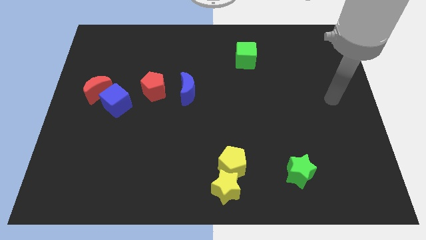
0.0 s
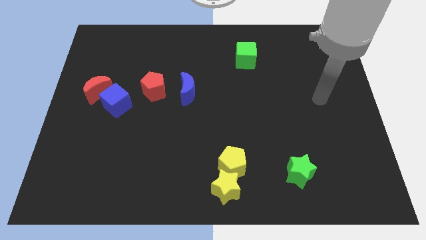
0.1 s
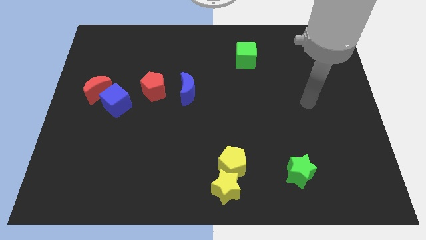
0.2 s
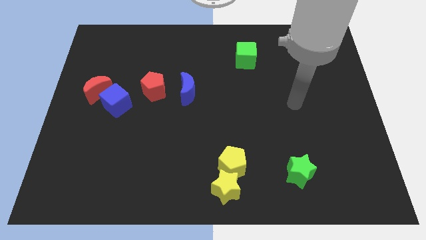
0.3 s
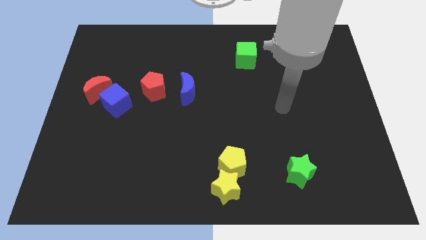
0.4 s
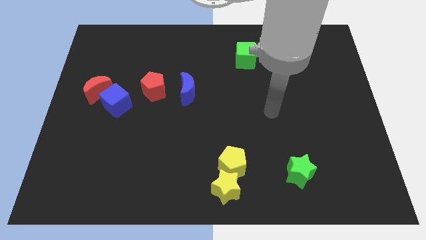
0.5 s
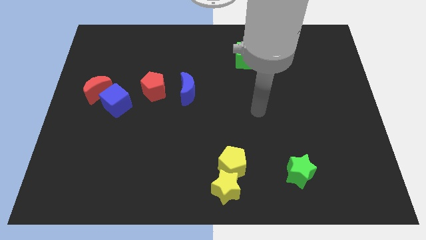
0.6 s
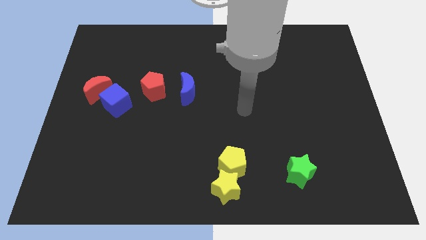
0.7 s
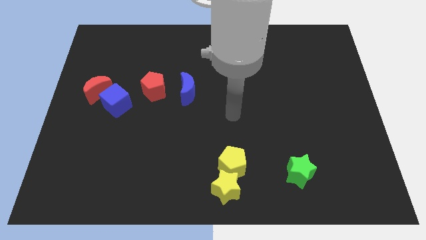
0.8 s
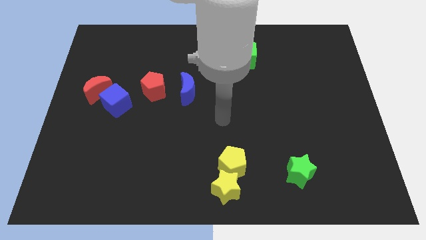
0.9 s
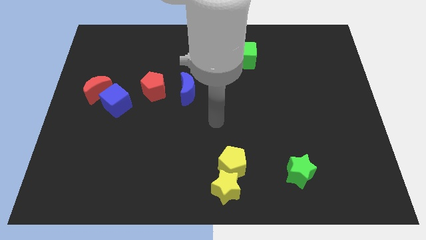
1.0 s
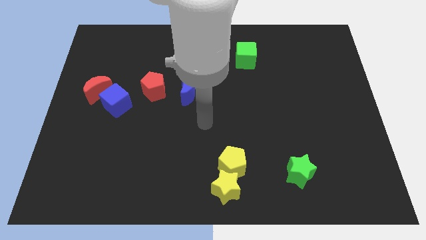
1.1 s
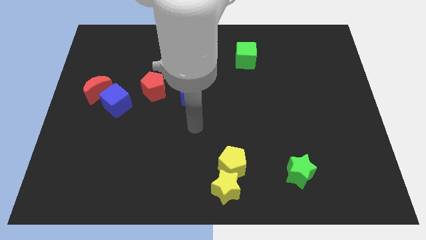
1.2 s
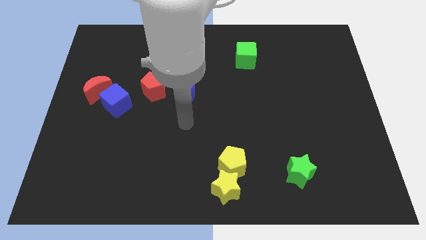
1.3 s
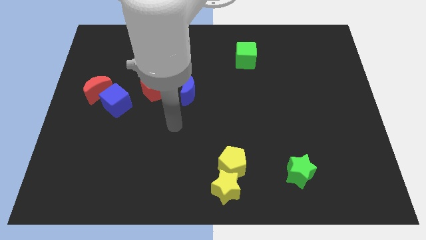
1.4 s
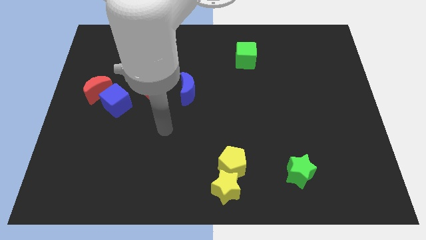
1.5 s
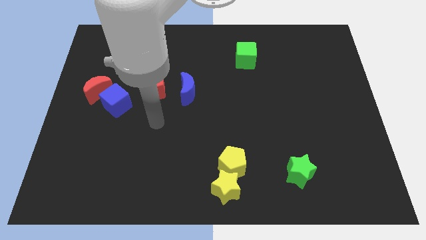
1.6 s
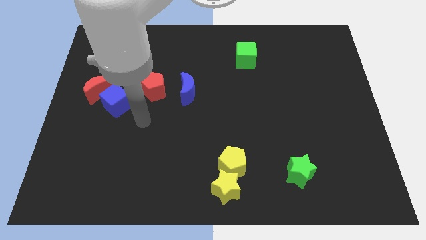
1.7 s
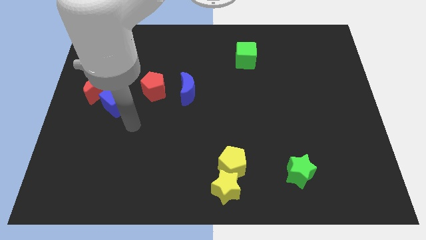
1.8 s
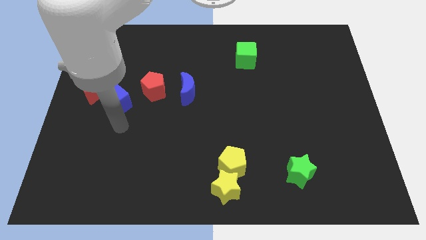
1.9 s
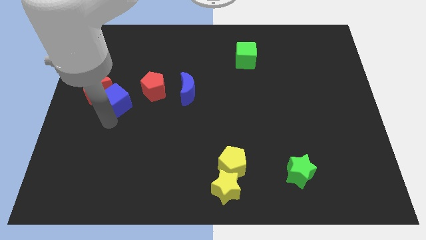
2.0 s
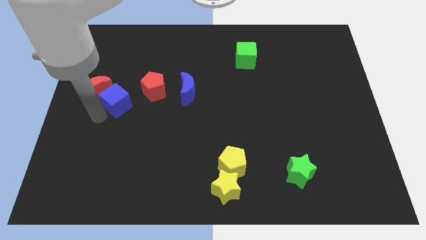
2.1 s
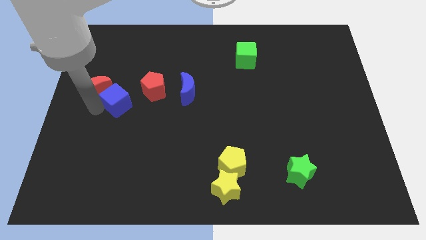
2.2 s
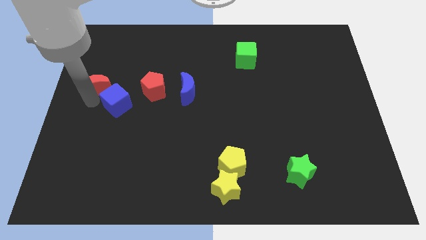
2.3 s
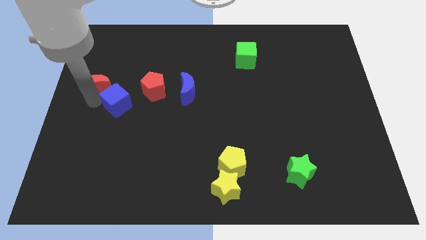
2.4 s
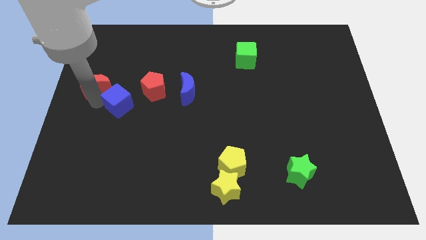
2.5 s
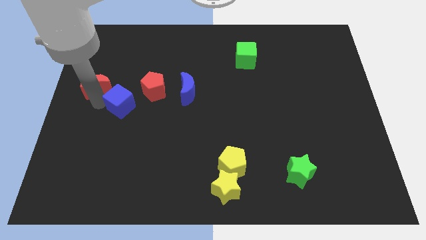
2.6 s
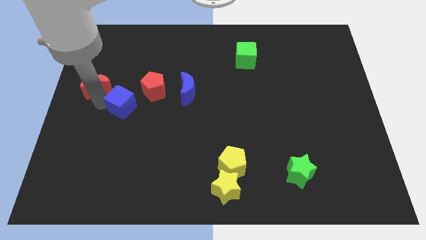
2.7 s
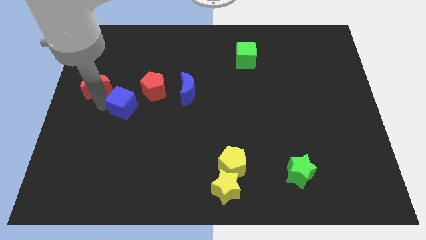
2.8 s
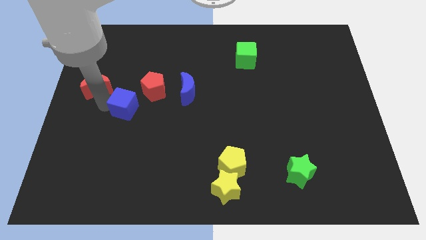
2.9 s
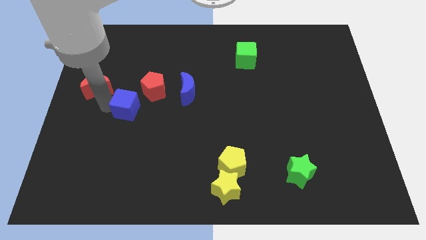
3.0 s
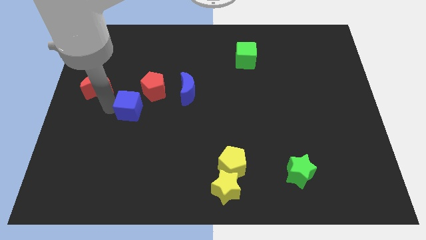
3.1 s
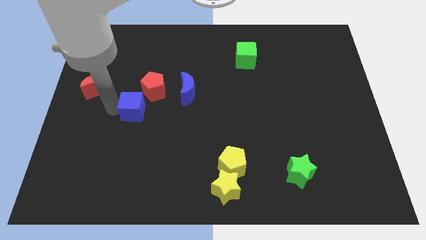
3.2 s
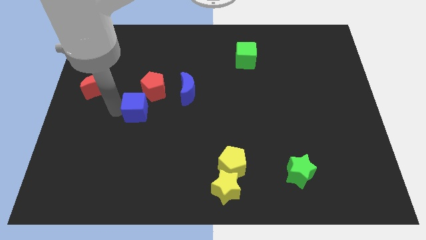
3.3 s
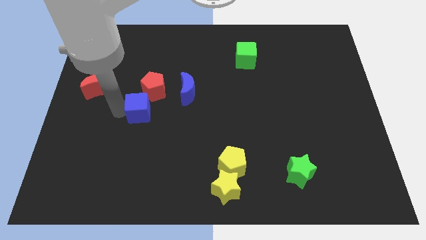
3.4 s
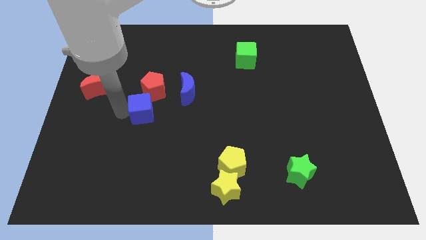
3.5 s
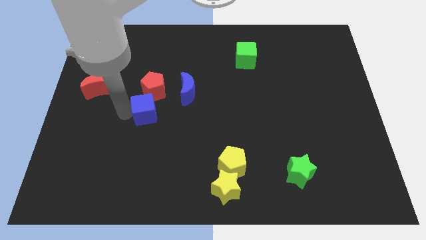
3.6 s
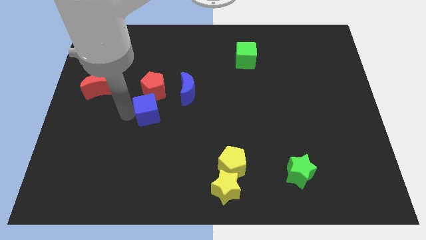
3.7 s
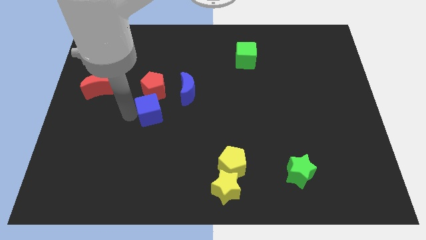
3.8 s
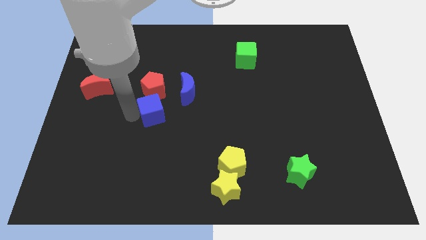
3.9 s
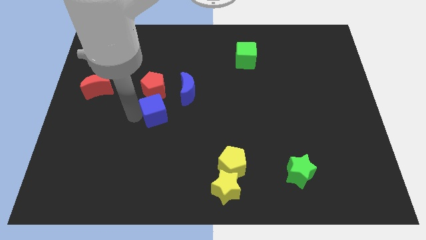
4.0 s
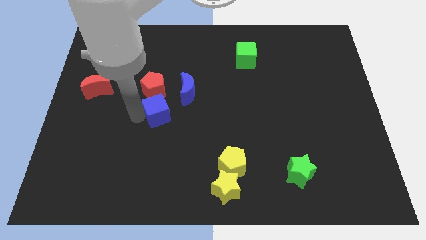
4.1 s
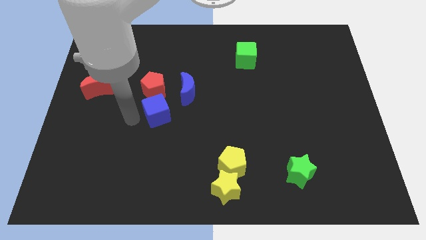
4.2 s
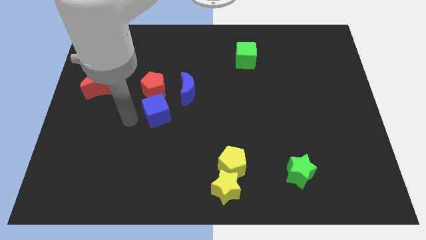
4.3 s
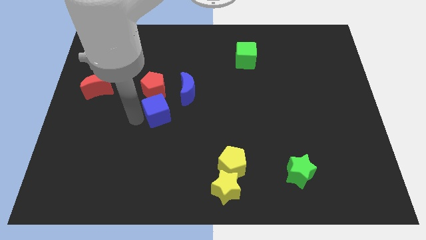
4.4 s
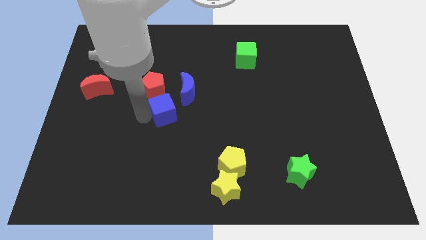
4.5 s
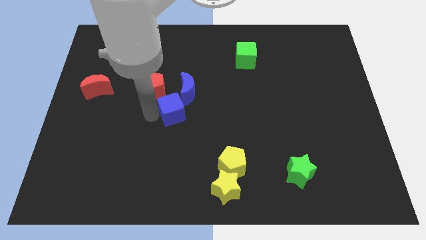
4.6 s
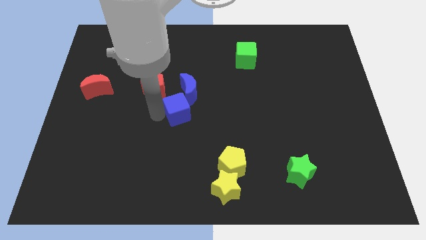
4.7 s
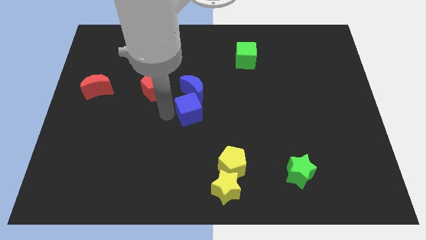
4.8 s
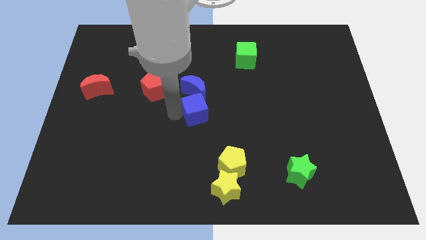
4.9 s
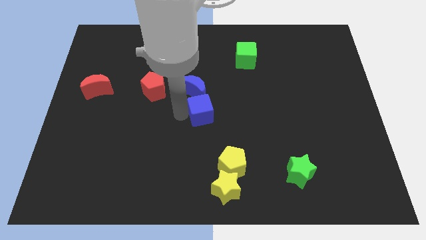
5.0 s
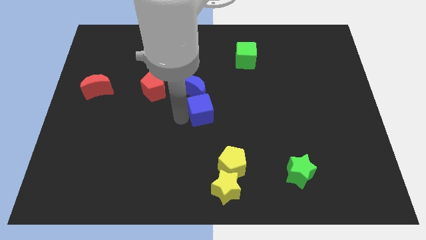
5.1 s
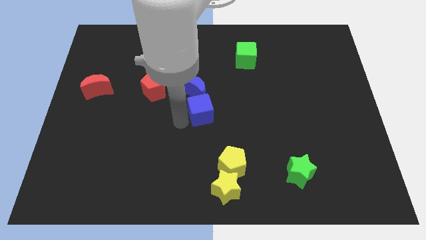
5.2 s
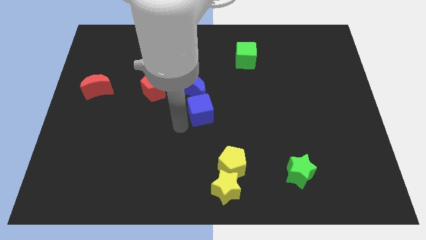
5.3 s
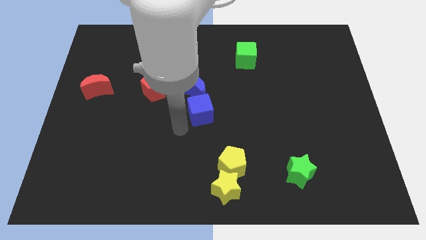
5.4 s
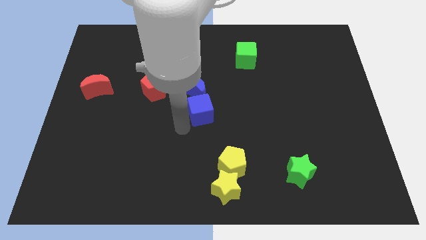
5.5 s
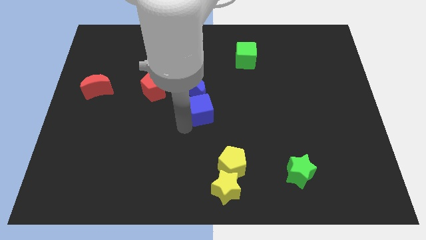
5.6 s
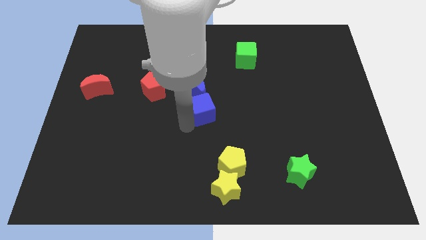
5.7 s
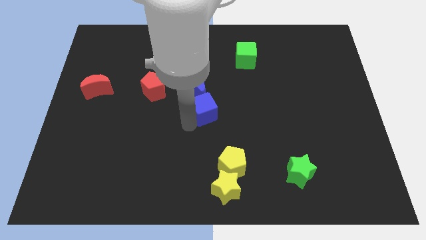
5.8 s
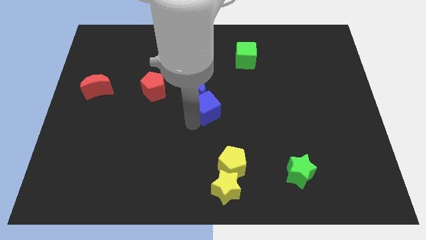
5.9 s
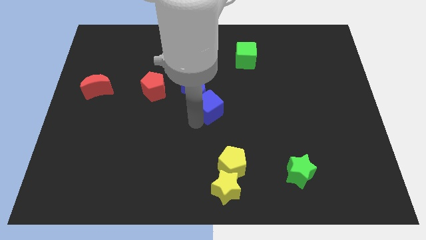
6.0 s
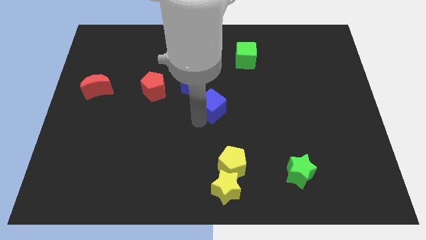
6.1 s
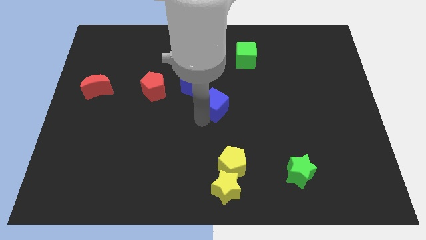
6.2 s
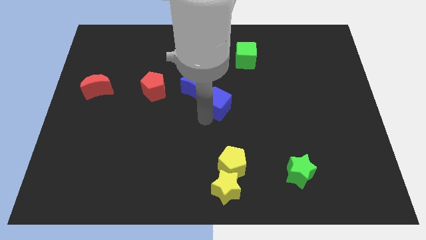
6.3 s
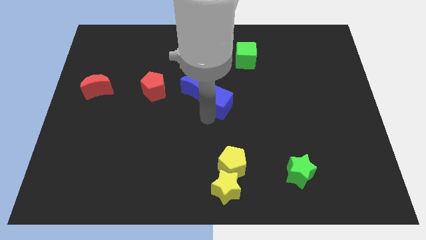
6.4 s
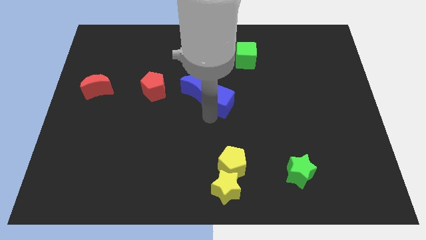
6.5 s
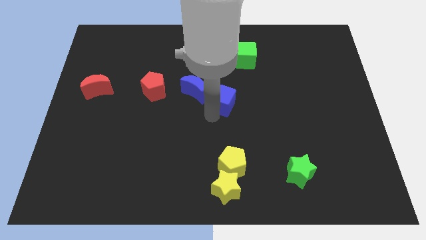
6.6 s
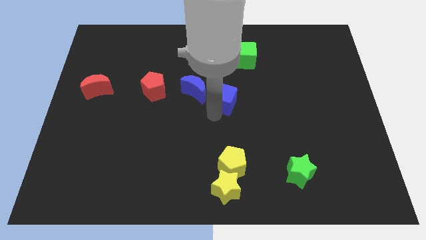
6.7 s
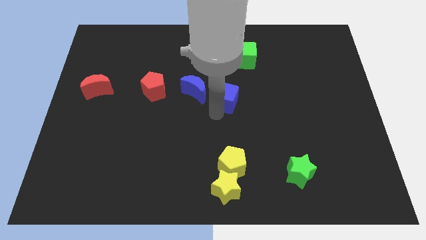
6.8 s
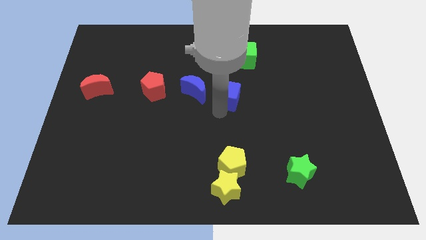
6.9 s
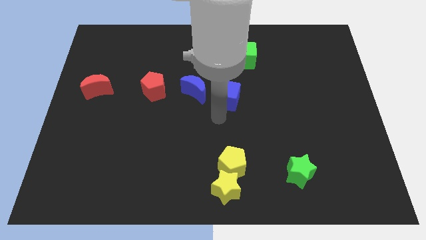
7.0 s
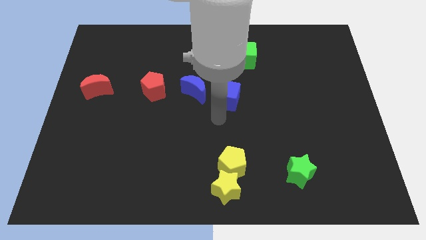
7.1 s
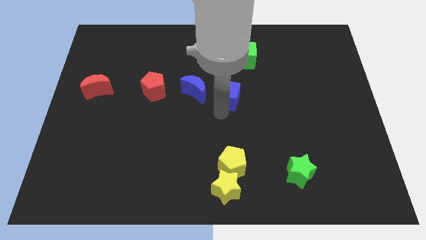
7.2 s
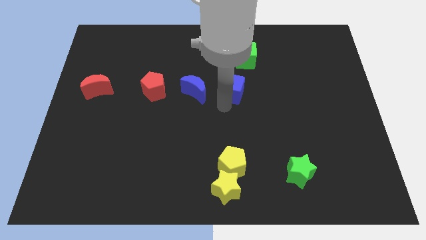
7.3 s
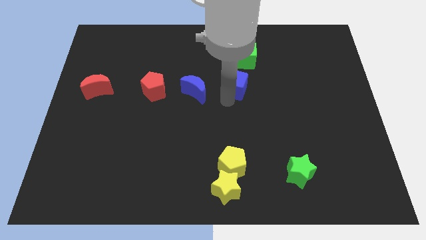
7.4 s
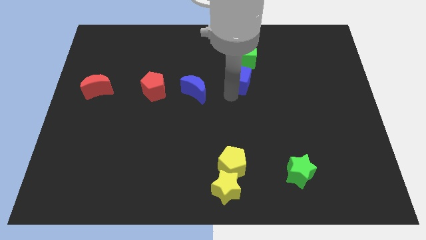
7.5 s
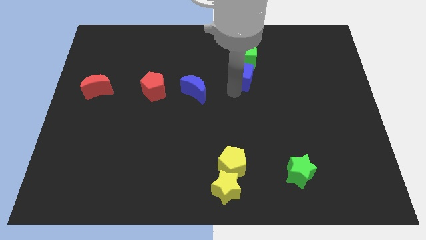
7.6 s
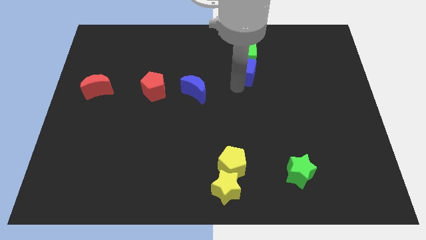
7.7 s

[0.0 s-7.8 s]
slide the blue cube towards the green cube

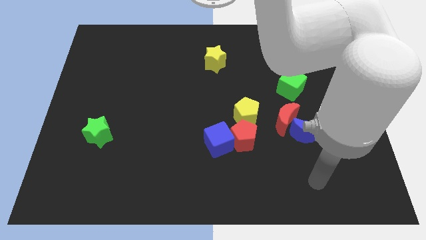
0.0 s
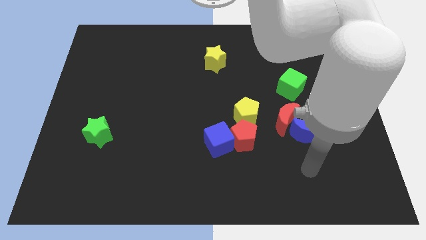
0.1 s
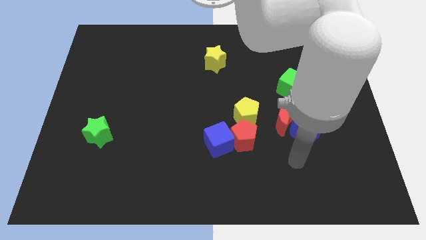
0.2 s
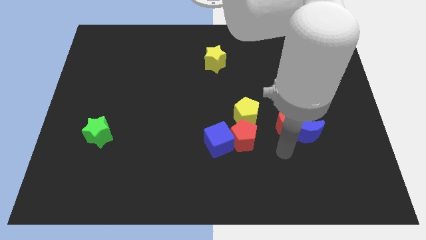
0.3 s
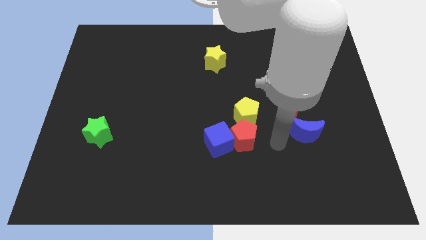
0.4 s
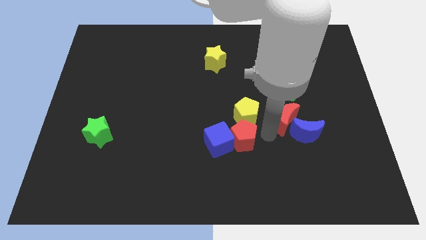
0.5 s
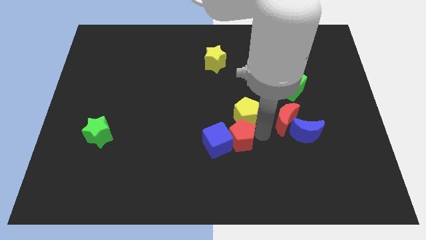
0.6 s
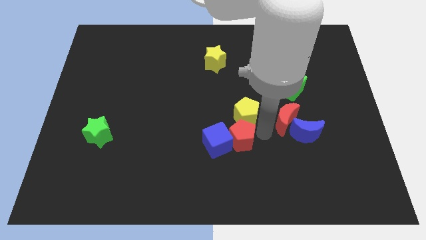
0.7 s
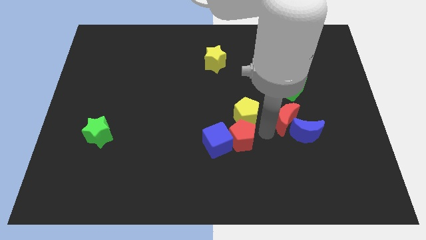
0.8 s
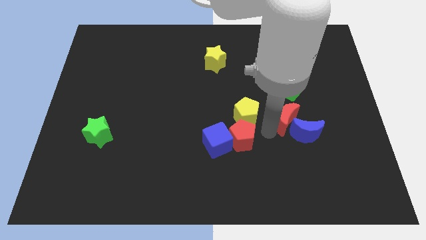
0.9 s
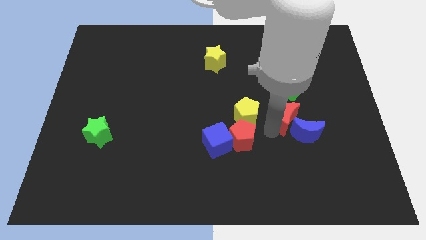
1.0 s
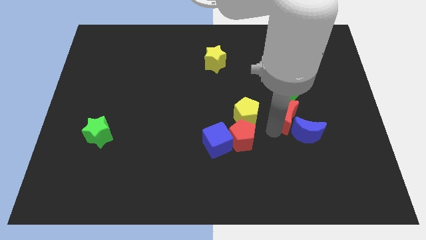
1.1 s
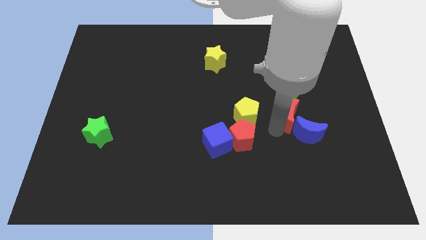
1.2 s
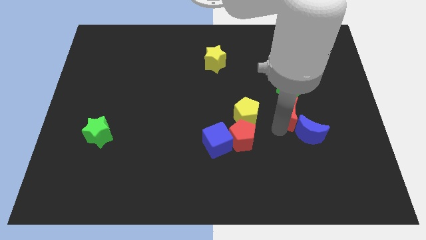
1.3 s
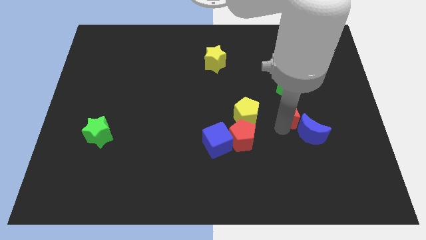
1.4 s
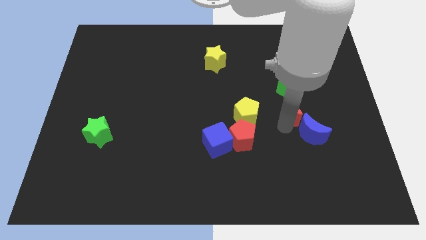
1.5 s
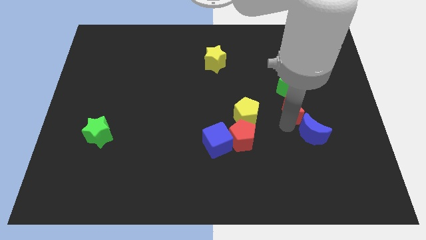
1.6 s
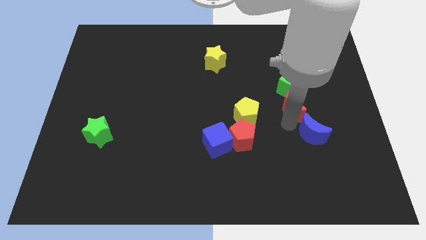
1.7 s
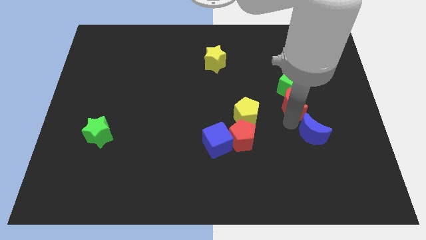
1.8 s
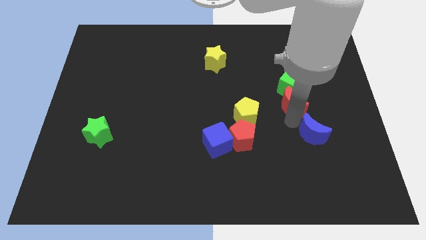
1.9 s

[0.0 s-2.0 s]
push the red moon close to the green cube
